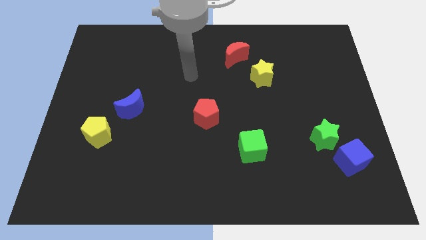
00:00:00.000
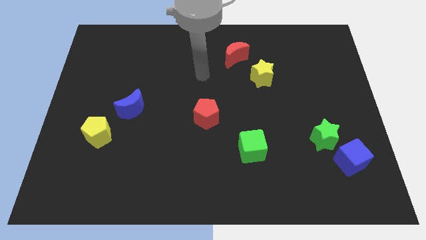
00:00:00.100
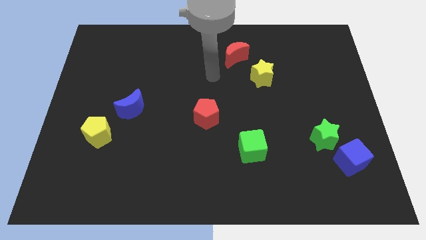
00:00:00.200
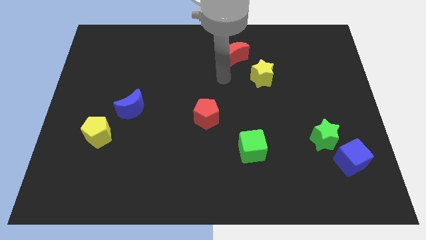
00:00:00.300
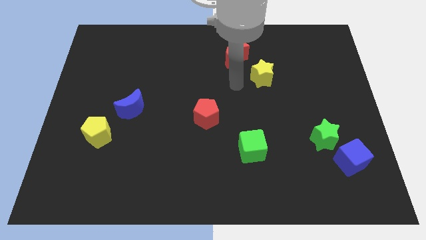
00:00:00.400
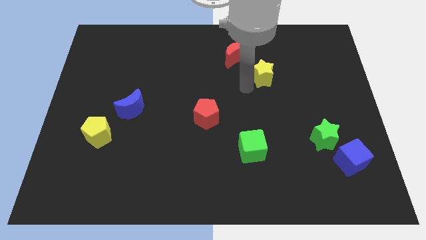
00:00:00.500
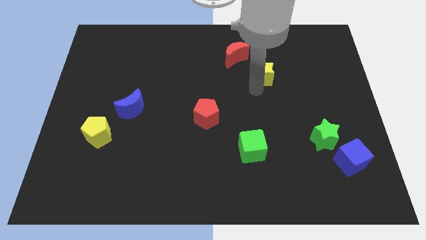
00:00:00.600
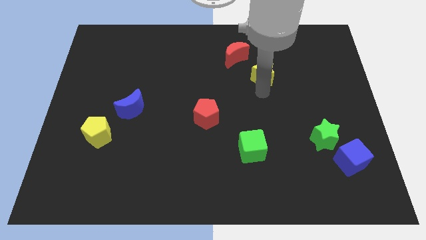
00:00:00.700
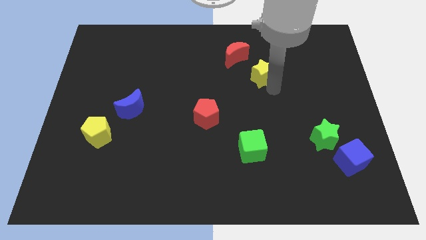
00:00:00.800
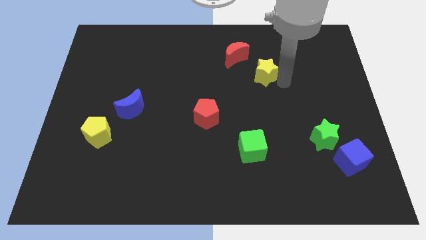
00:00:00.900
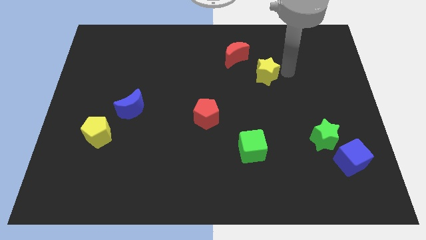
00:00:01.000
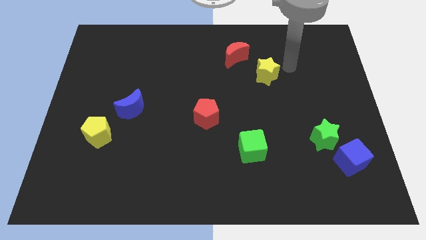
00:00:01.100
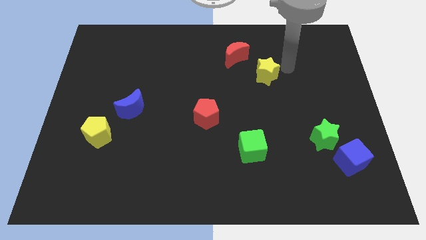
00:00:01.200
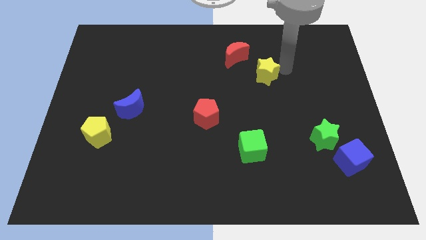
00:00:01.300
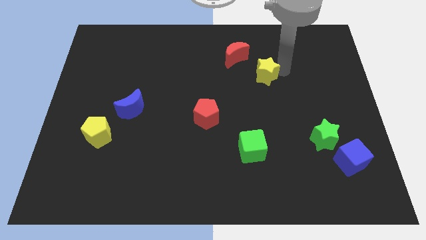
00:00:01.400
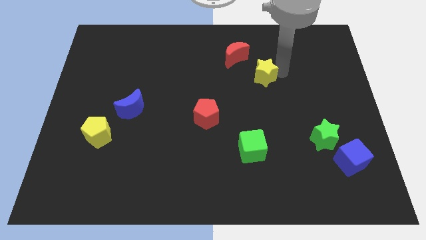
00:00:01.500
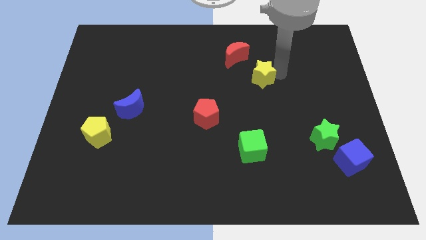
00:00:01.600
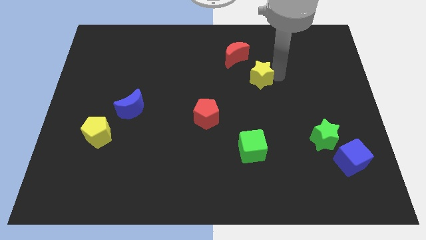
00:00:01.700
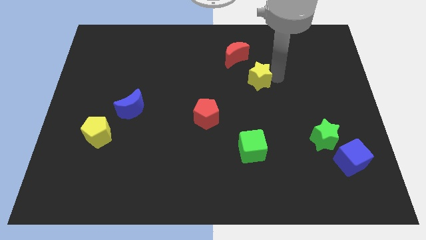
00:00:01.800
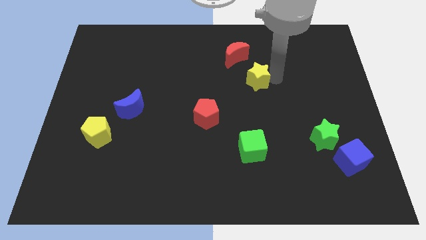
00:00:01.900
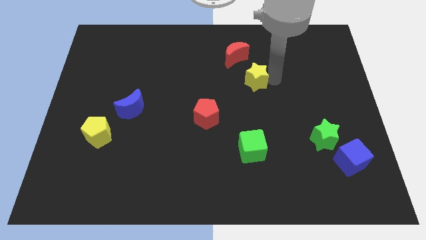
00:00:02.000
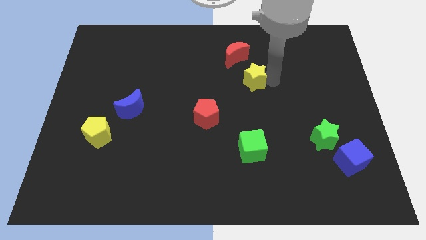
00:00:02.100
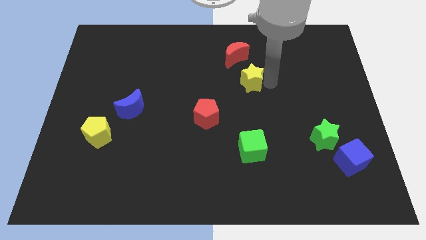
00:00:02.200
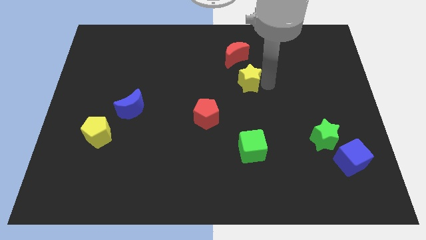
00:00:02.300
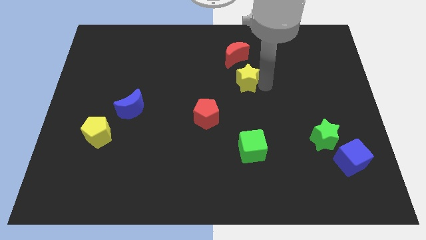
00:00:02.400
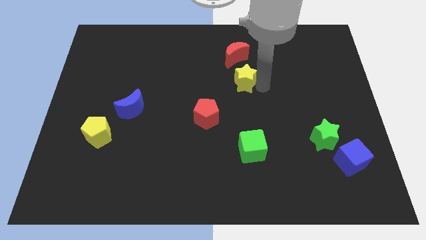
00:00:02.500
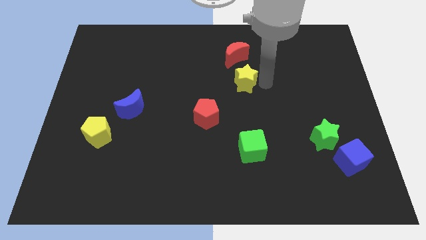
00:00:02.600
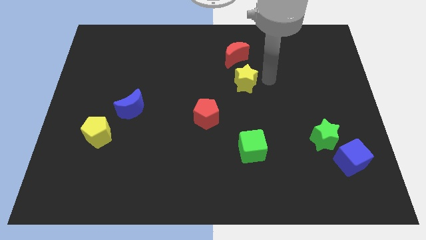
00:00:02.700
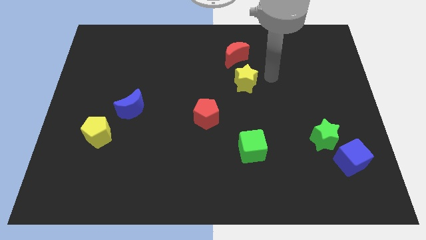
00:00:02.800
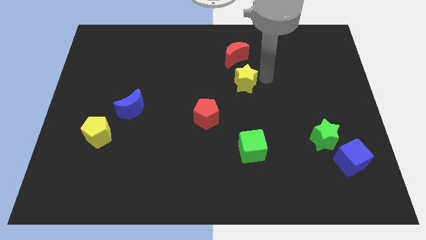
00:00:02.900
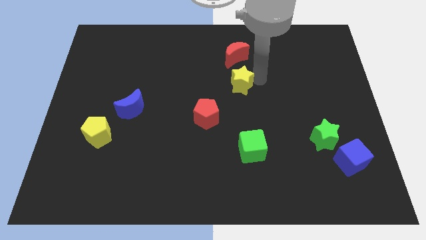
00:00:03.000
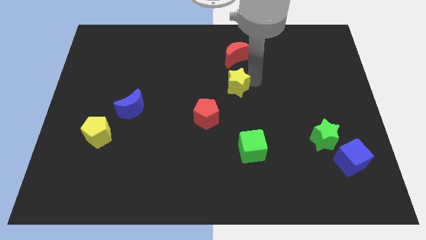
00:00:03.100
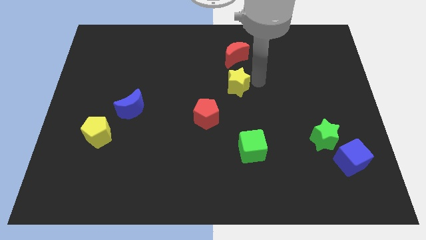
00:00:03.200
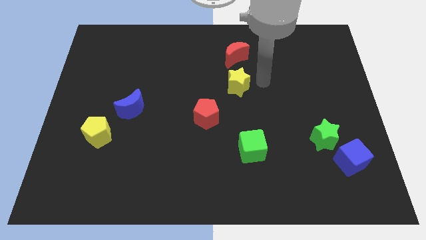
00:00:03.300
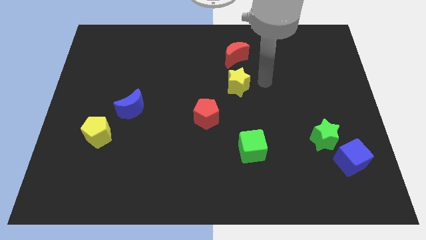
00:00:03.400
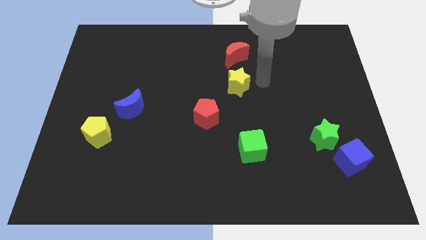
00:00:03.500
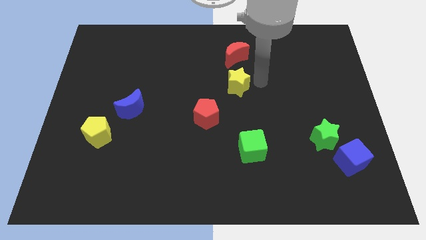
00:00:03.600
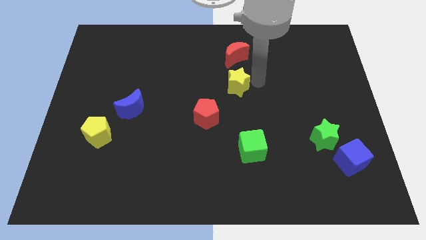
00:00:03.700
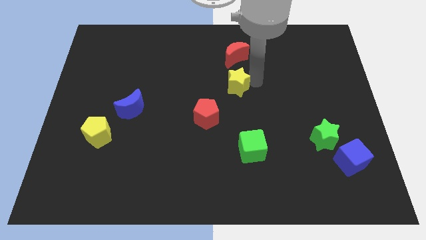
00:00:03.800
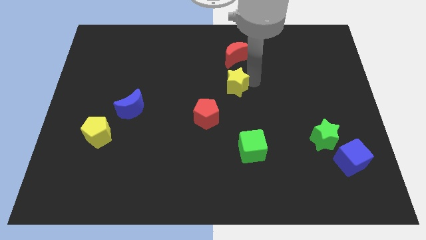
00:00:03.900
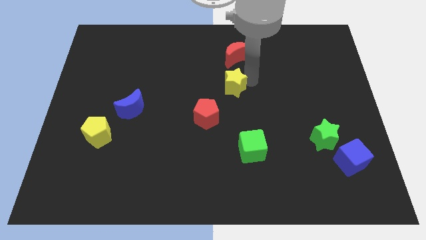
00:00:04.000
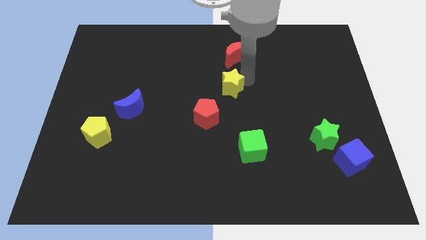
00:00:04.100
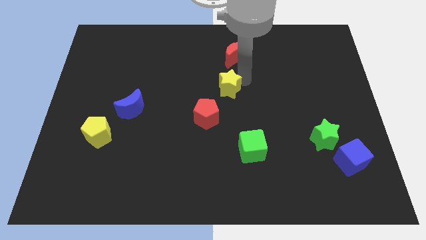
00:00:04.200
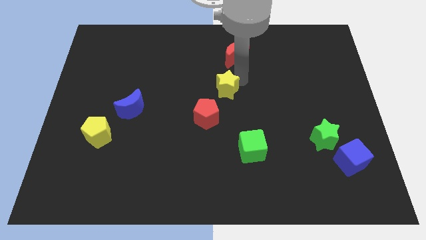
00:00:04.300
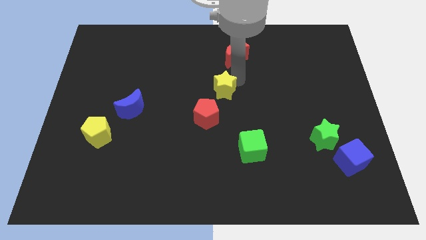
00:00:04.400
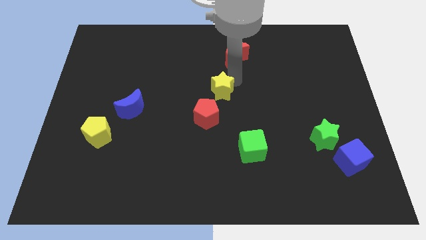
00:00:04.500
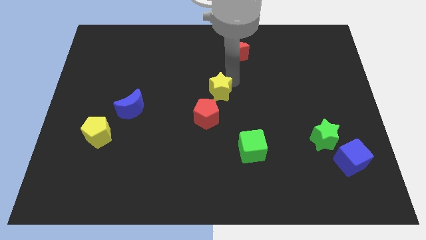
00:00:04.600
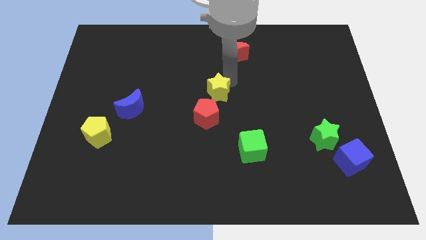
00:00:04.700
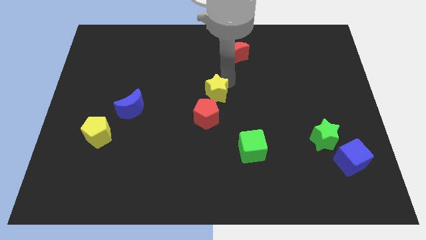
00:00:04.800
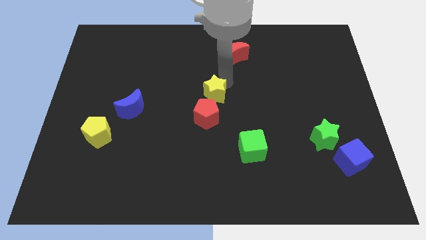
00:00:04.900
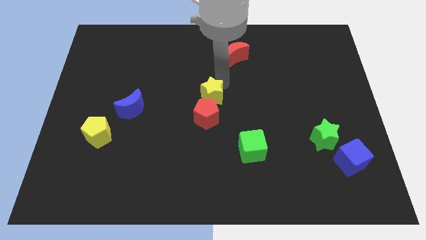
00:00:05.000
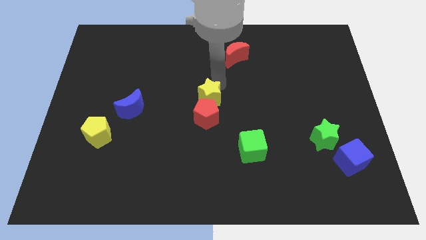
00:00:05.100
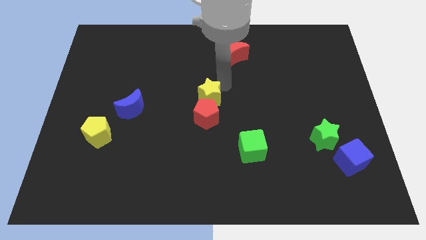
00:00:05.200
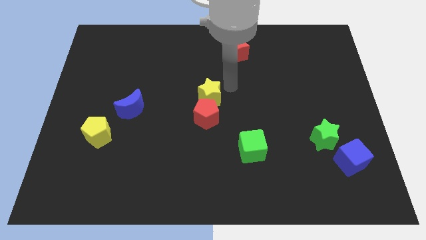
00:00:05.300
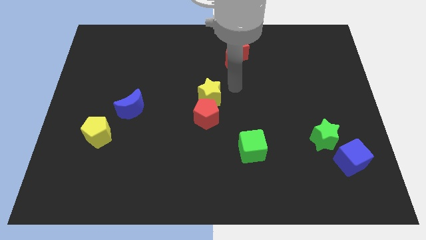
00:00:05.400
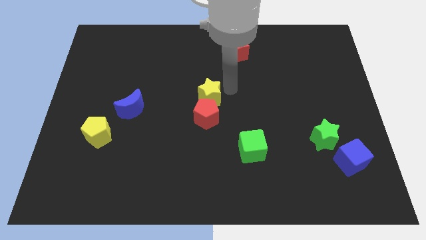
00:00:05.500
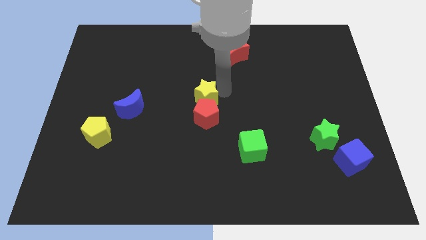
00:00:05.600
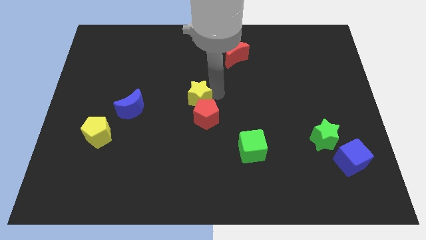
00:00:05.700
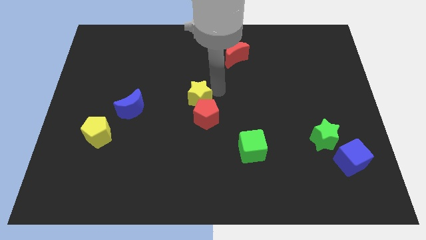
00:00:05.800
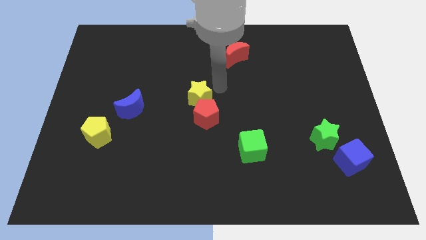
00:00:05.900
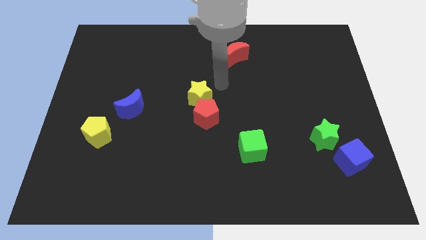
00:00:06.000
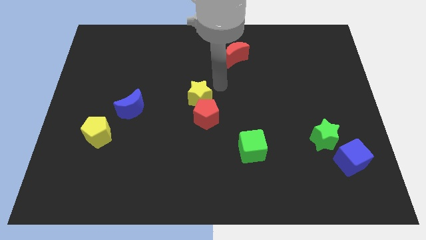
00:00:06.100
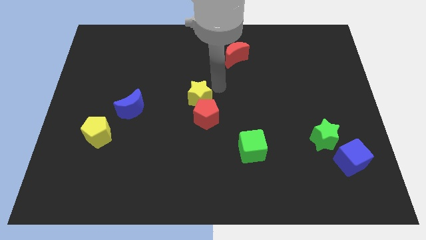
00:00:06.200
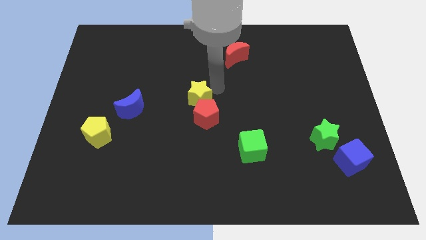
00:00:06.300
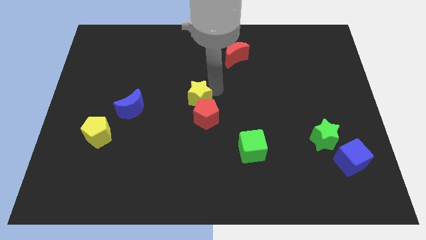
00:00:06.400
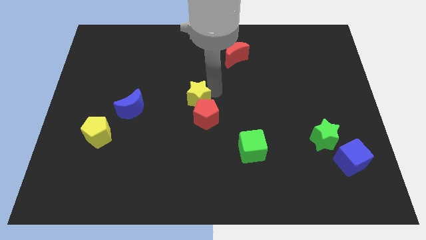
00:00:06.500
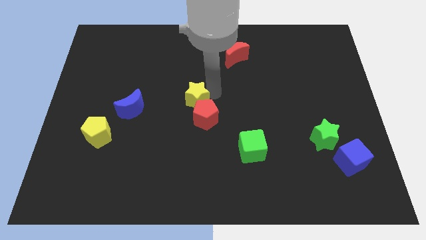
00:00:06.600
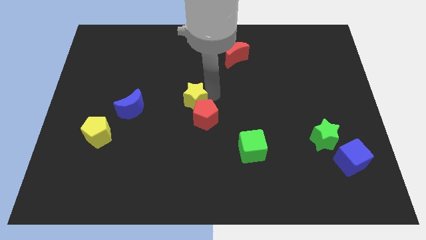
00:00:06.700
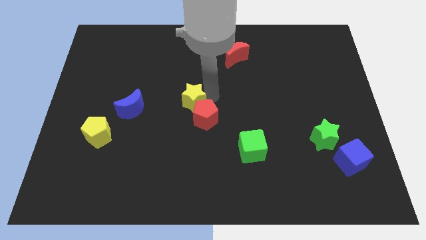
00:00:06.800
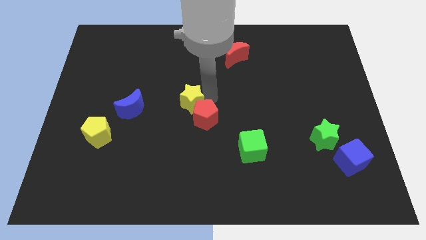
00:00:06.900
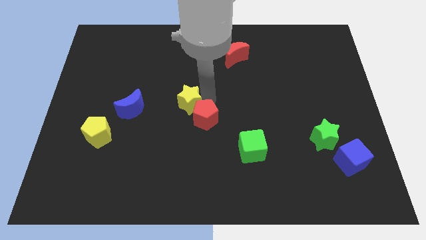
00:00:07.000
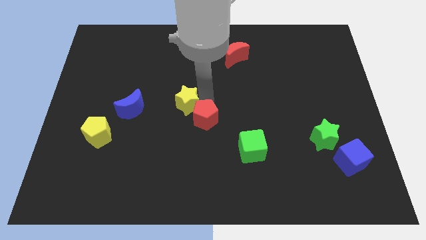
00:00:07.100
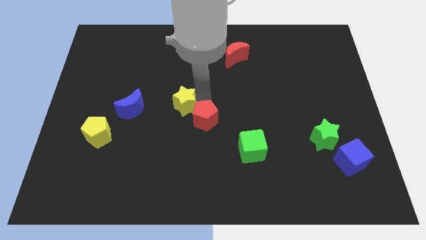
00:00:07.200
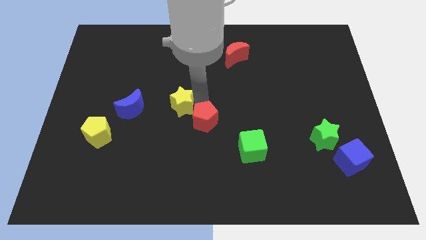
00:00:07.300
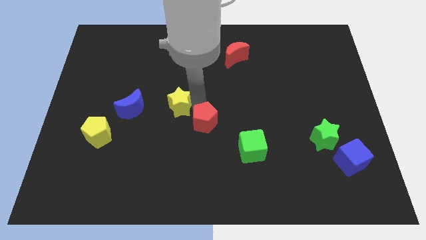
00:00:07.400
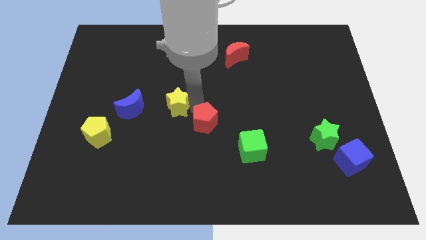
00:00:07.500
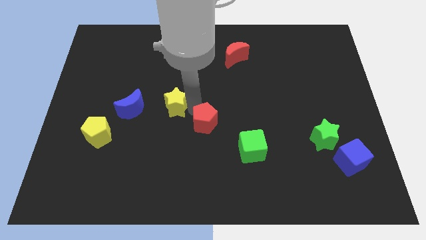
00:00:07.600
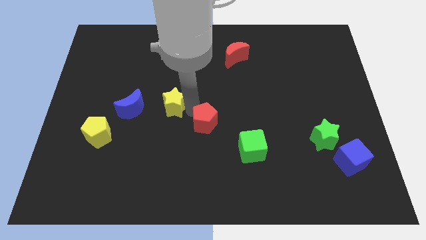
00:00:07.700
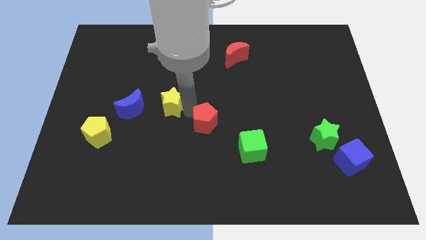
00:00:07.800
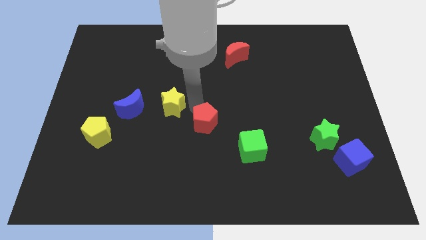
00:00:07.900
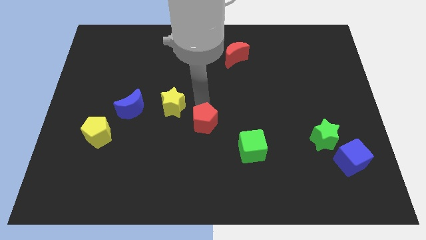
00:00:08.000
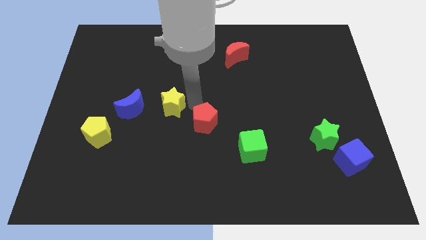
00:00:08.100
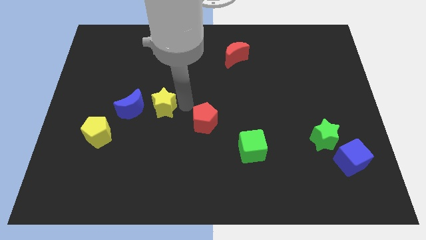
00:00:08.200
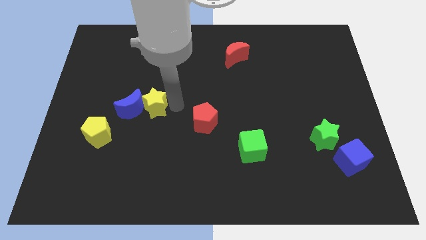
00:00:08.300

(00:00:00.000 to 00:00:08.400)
put the yellow star next to the blue moon
